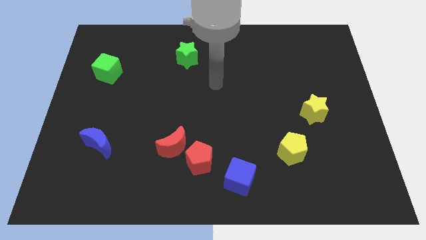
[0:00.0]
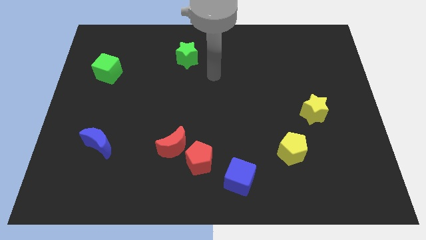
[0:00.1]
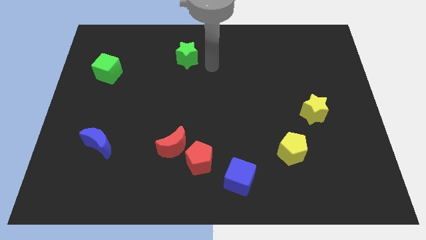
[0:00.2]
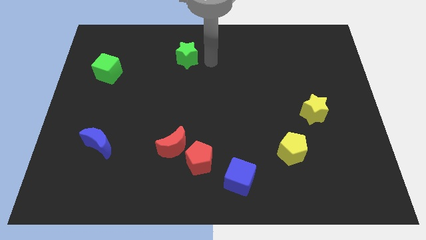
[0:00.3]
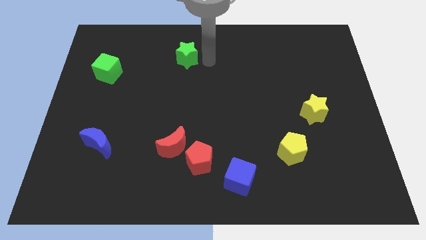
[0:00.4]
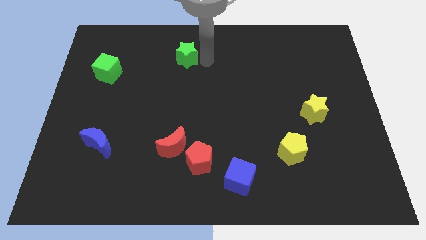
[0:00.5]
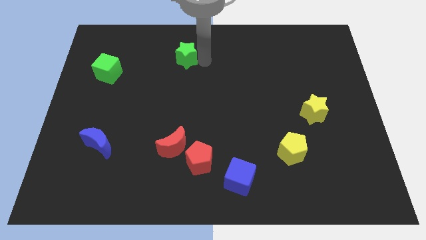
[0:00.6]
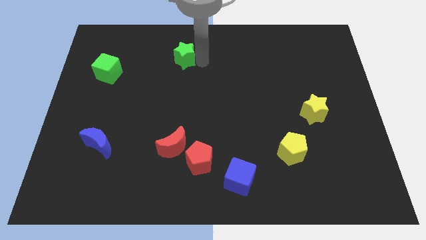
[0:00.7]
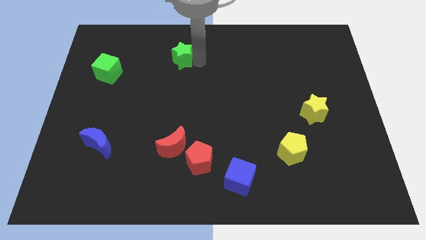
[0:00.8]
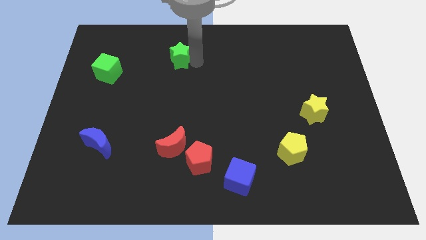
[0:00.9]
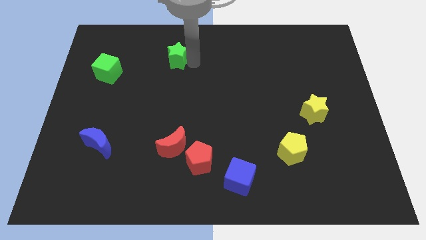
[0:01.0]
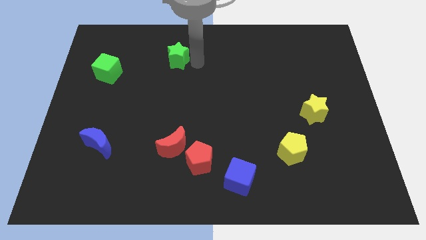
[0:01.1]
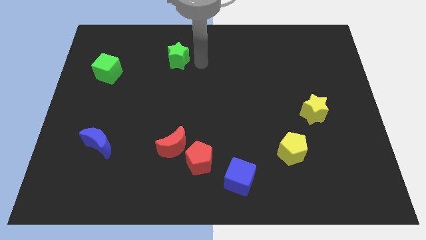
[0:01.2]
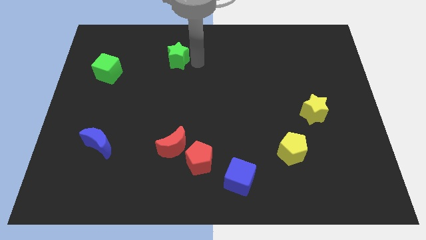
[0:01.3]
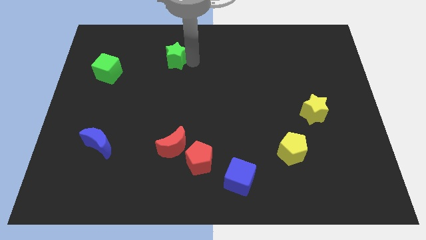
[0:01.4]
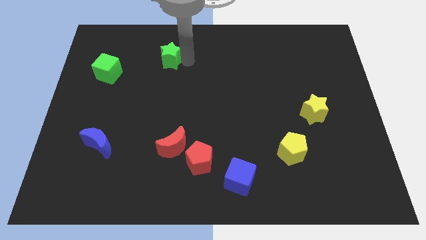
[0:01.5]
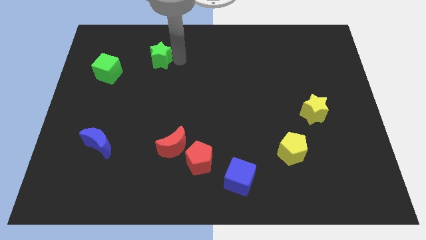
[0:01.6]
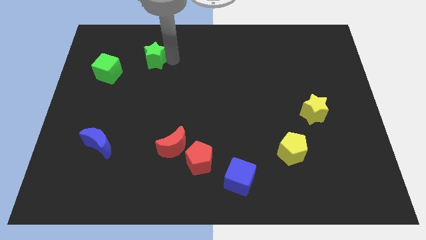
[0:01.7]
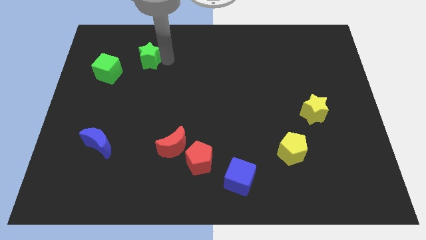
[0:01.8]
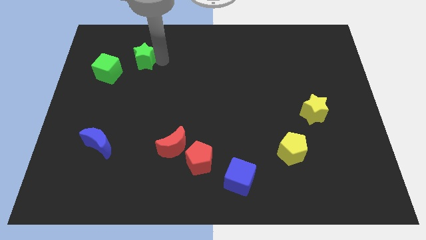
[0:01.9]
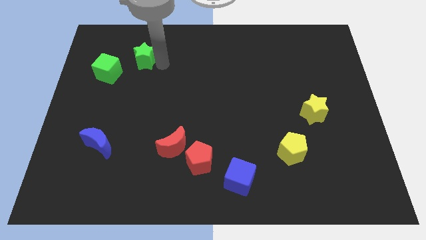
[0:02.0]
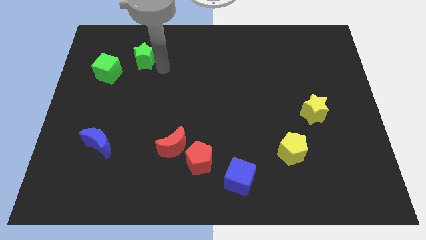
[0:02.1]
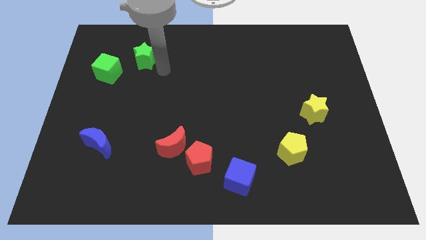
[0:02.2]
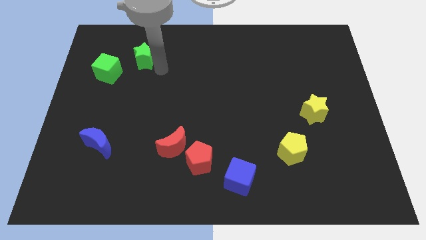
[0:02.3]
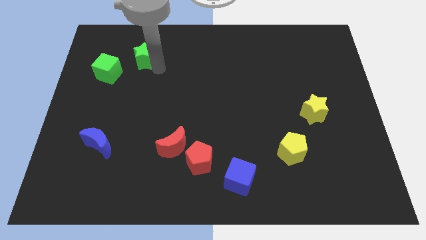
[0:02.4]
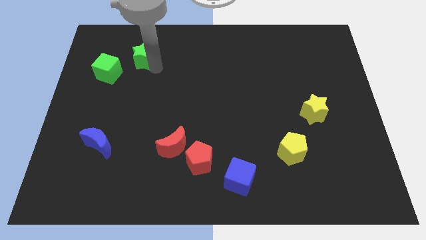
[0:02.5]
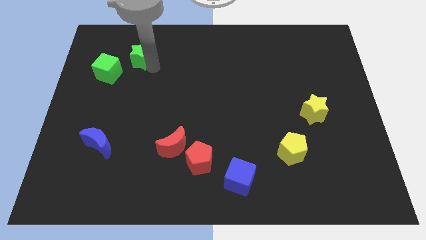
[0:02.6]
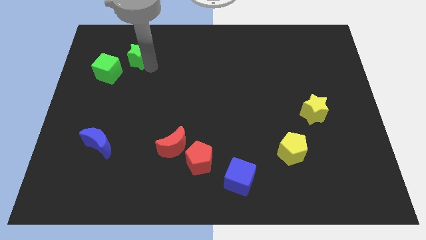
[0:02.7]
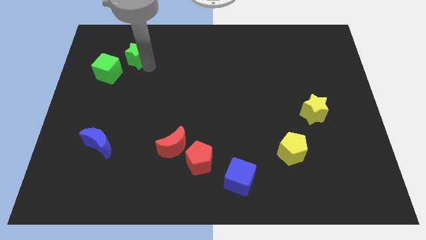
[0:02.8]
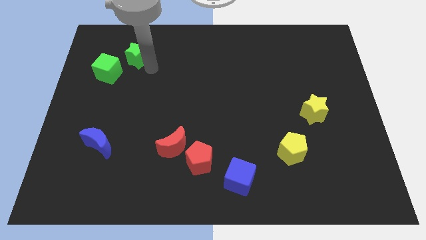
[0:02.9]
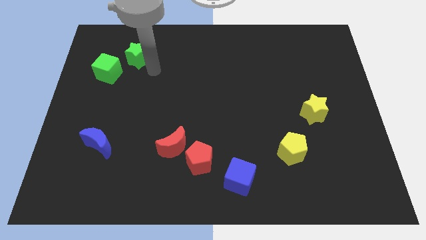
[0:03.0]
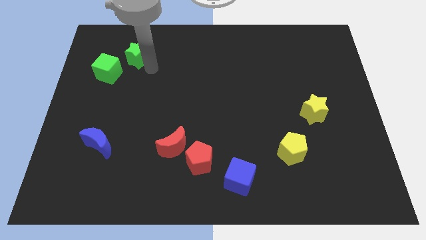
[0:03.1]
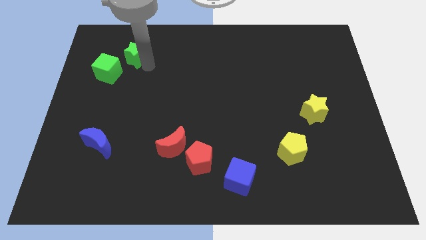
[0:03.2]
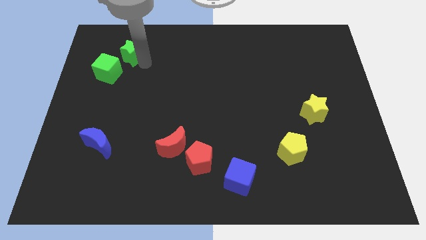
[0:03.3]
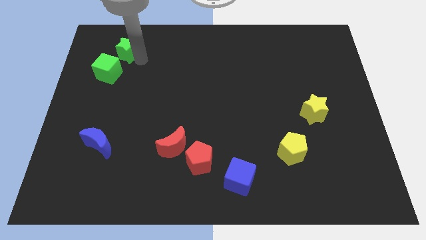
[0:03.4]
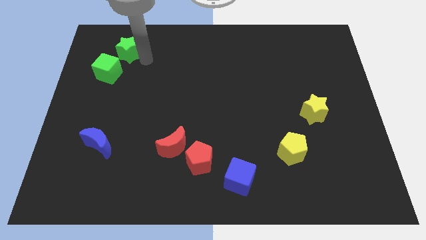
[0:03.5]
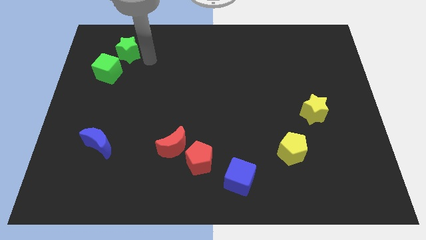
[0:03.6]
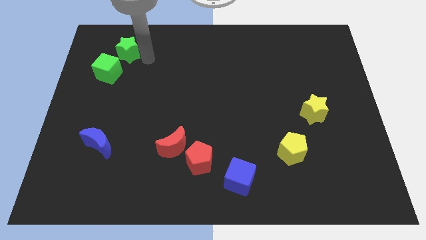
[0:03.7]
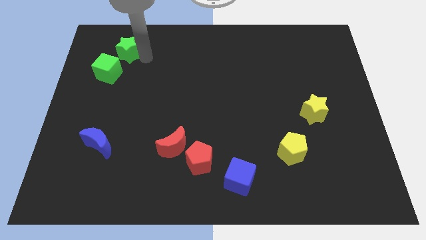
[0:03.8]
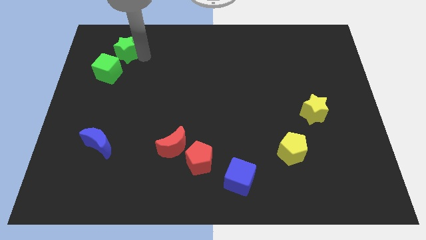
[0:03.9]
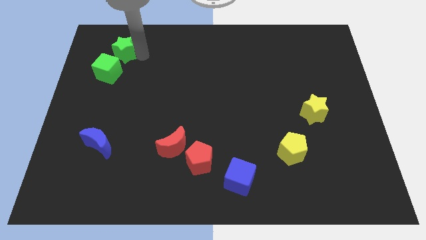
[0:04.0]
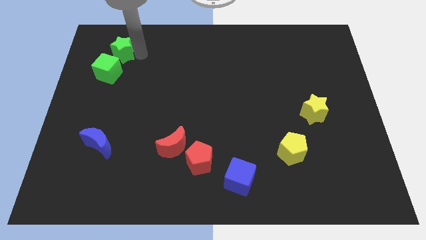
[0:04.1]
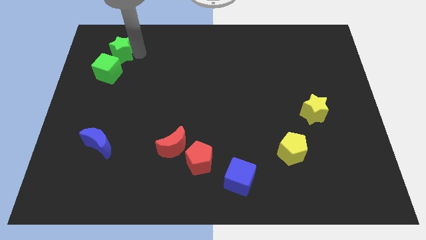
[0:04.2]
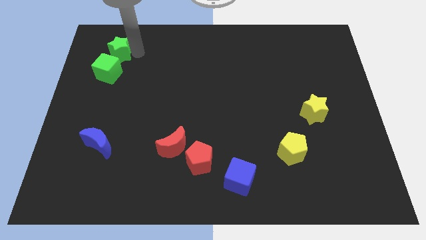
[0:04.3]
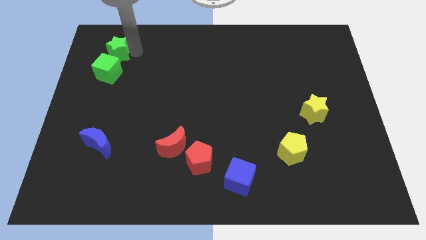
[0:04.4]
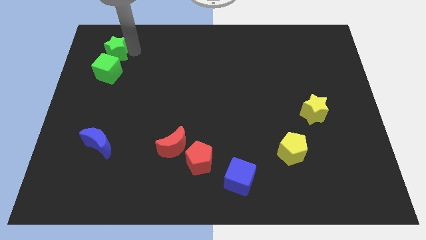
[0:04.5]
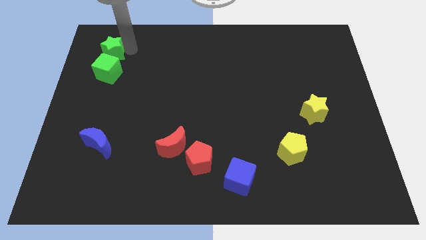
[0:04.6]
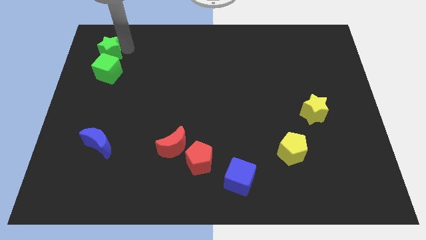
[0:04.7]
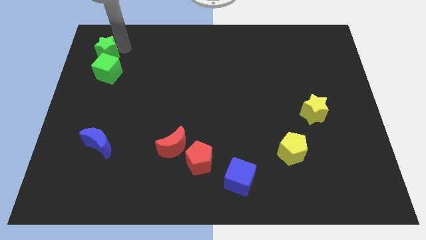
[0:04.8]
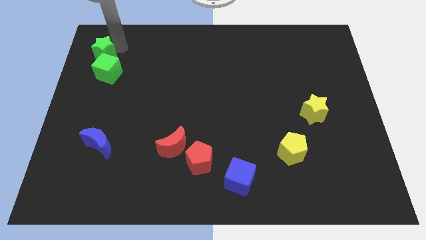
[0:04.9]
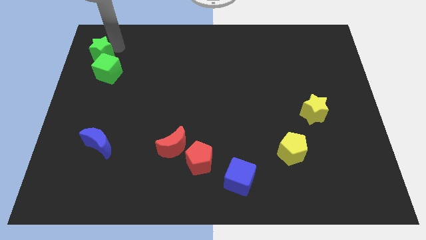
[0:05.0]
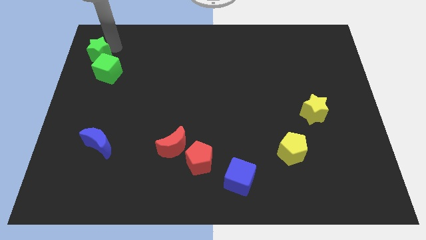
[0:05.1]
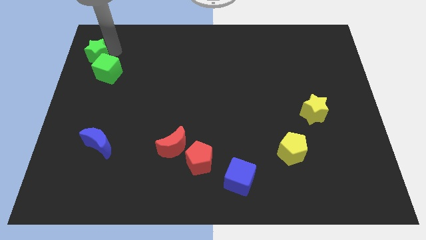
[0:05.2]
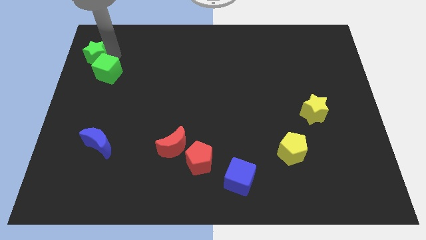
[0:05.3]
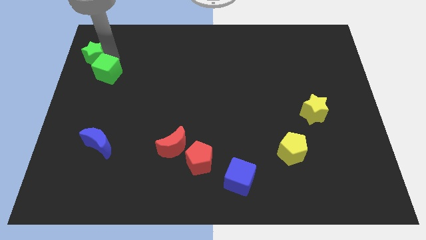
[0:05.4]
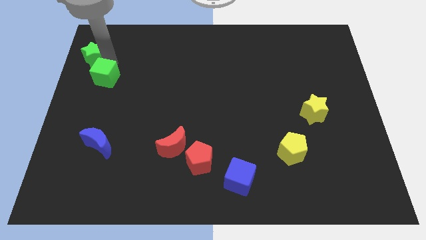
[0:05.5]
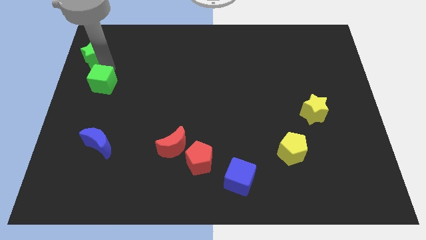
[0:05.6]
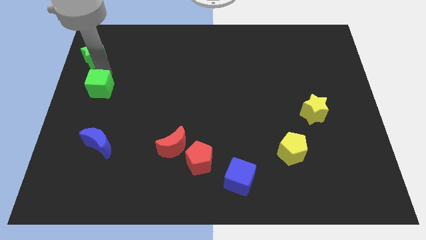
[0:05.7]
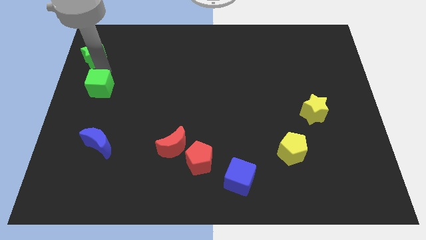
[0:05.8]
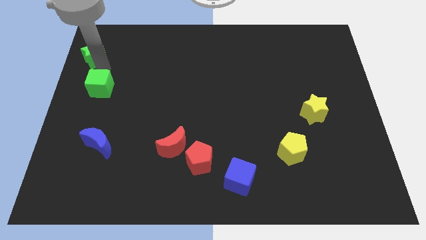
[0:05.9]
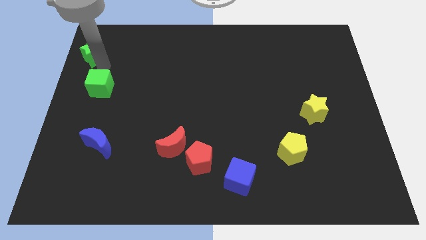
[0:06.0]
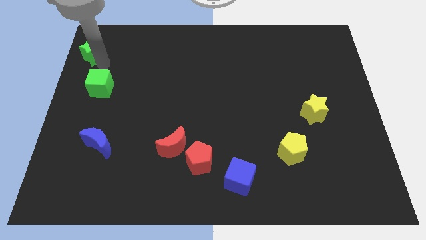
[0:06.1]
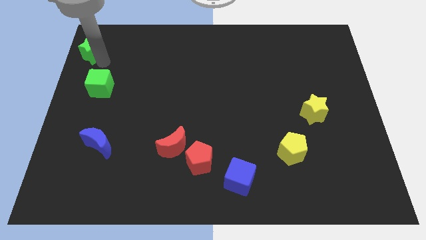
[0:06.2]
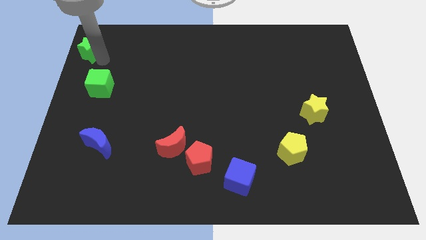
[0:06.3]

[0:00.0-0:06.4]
push the green star to the top left
